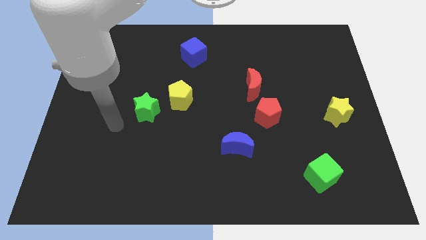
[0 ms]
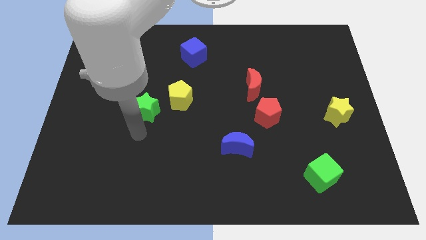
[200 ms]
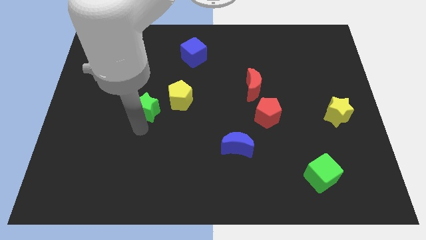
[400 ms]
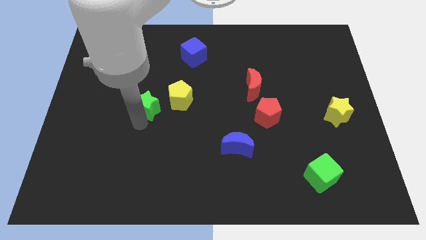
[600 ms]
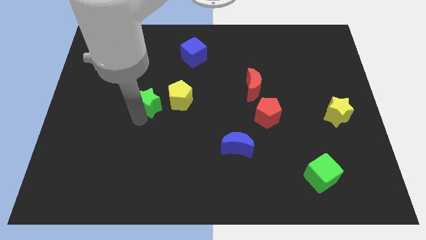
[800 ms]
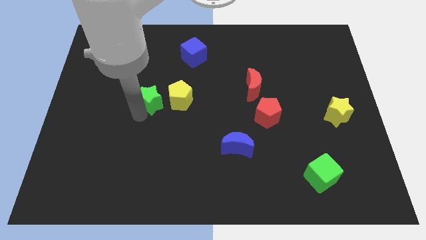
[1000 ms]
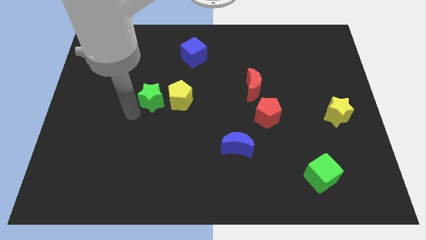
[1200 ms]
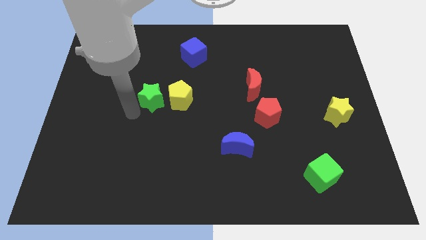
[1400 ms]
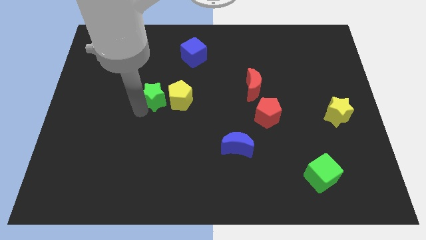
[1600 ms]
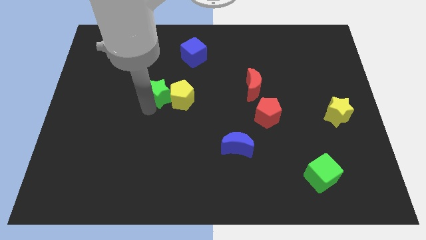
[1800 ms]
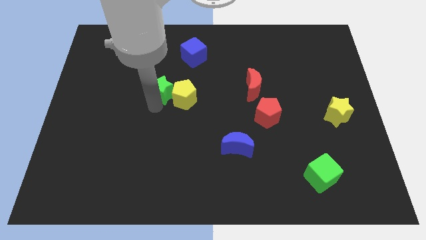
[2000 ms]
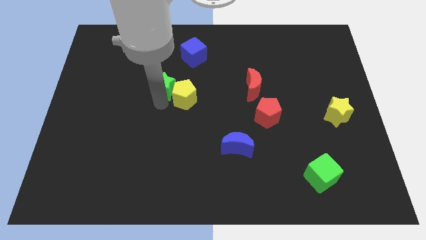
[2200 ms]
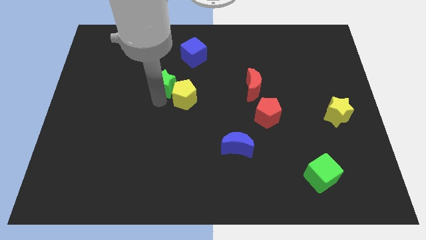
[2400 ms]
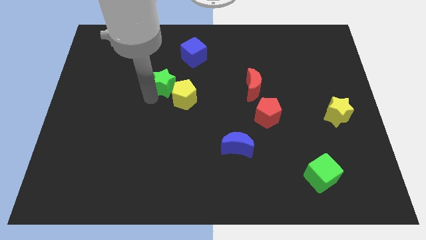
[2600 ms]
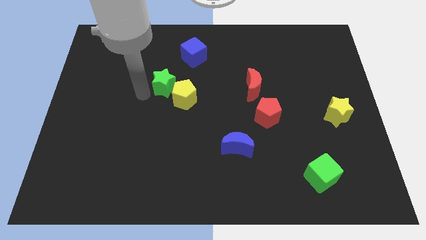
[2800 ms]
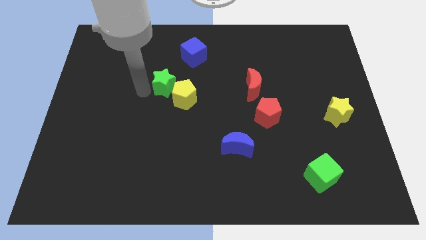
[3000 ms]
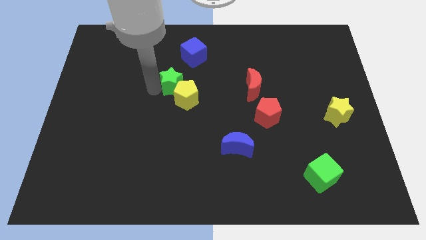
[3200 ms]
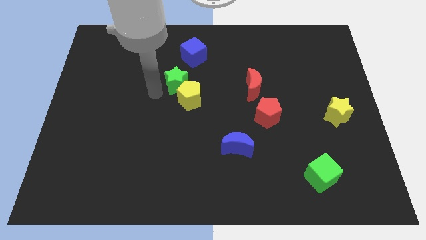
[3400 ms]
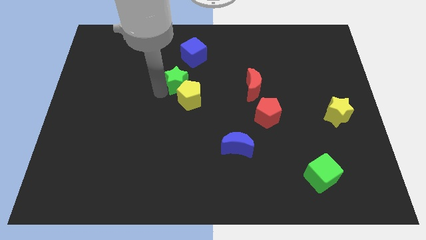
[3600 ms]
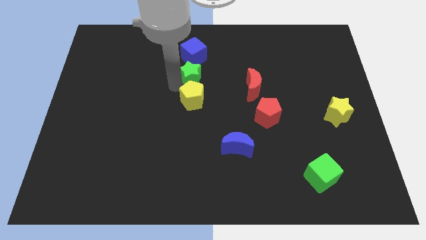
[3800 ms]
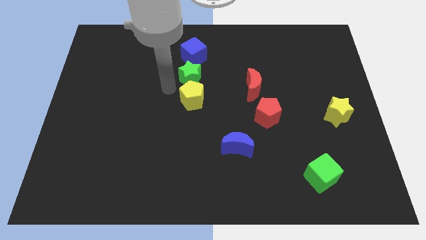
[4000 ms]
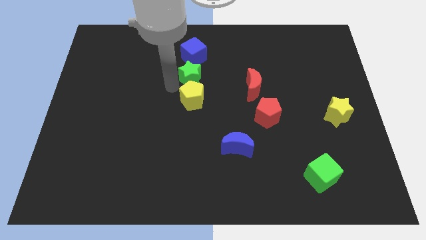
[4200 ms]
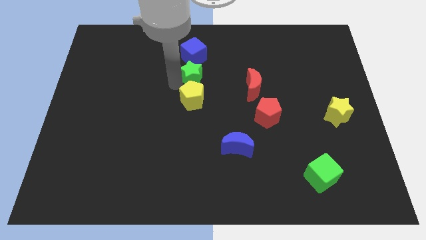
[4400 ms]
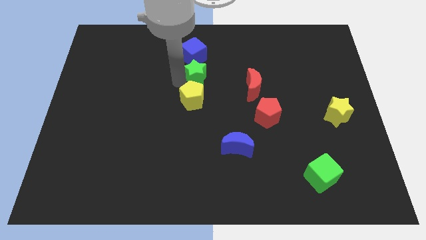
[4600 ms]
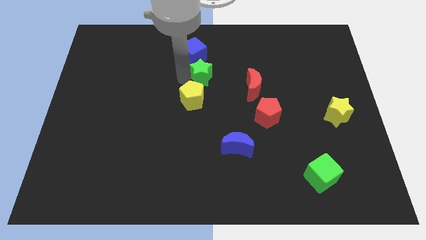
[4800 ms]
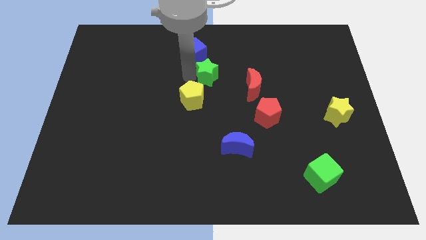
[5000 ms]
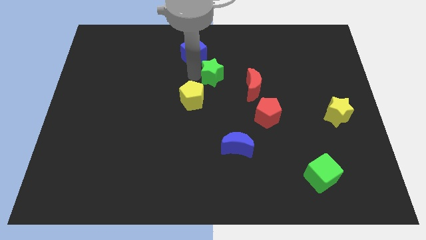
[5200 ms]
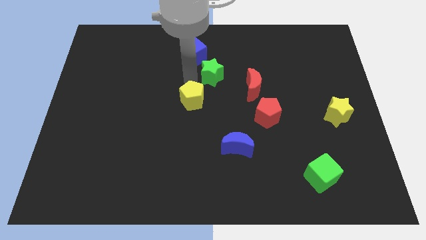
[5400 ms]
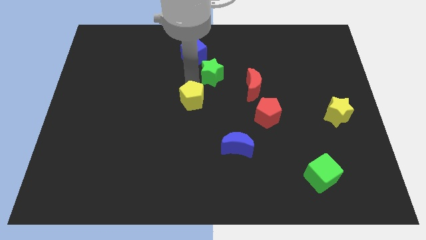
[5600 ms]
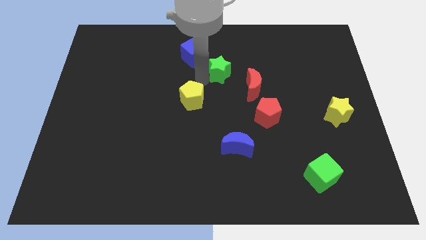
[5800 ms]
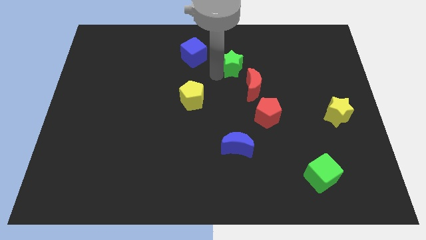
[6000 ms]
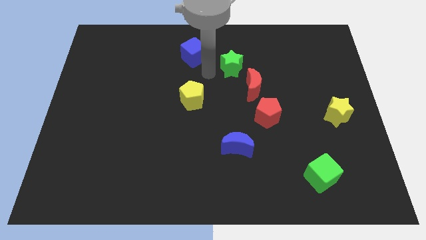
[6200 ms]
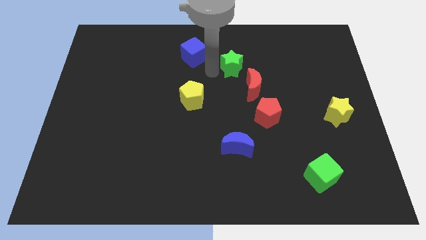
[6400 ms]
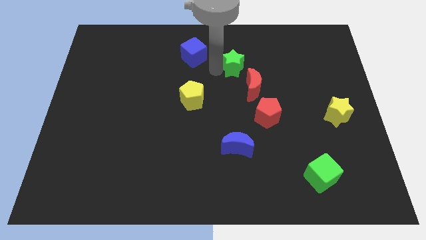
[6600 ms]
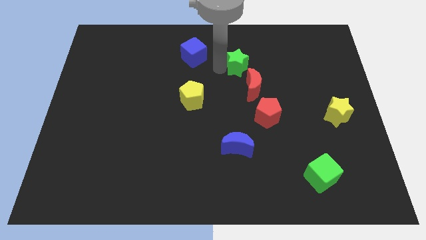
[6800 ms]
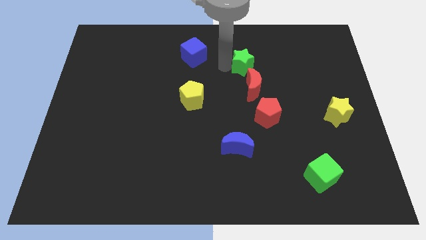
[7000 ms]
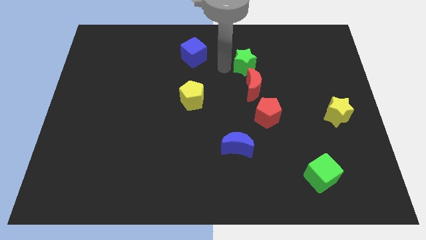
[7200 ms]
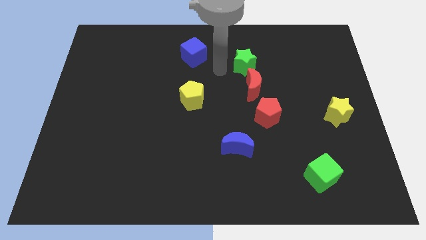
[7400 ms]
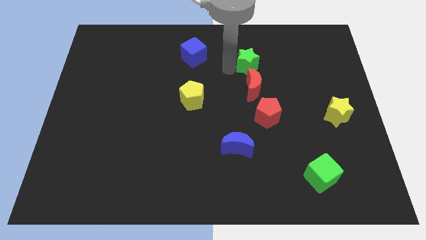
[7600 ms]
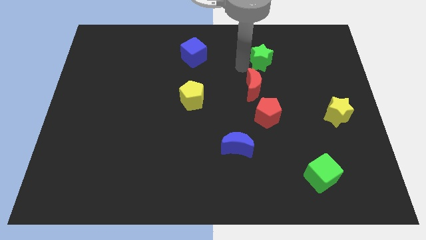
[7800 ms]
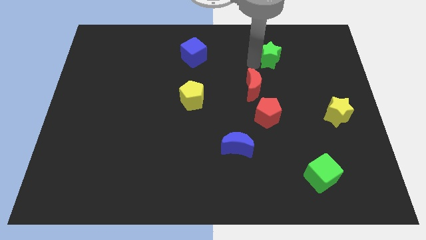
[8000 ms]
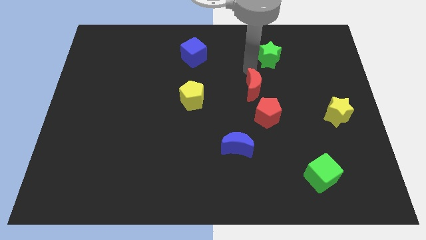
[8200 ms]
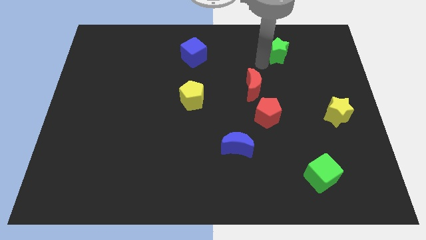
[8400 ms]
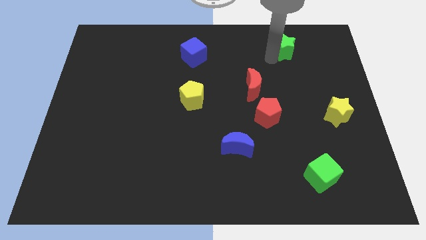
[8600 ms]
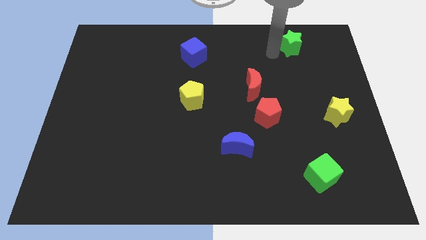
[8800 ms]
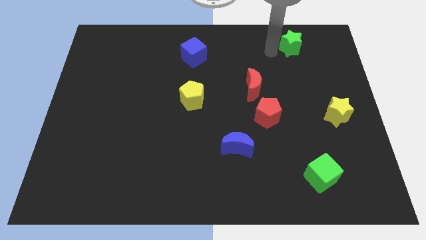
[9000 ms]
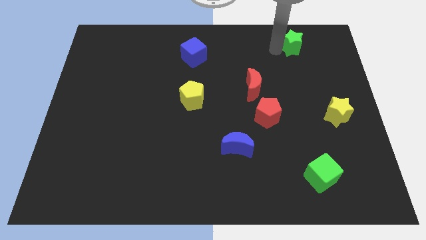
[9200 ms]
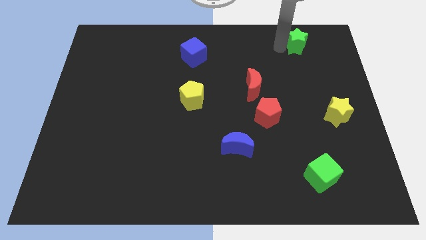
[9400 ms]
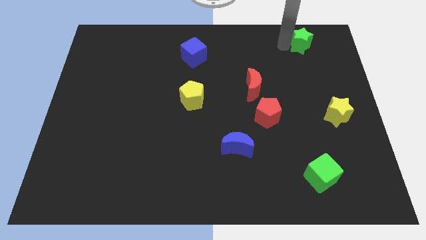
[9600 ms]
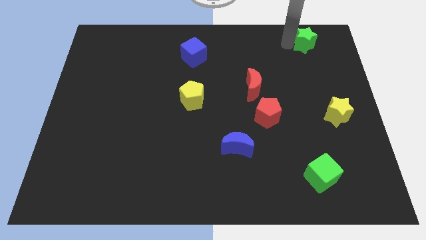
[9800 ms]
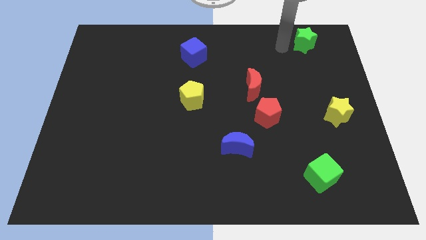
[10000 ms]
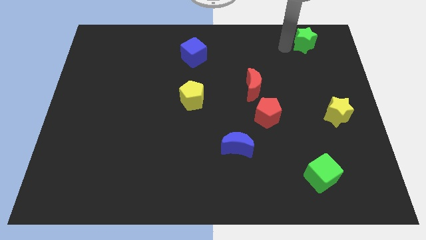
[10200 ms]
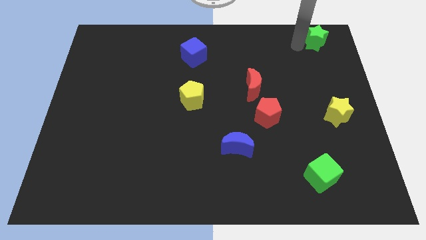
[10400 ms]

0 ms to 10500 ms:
slide the green star to the top right of the board

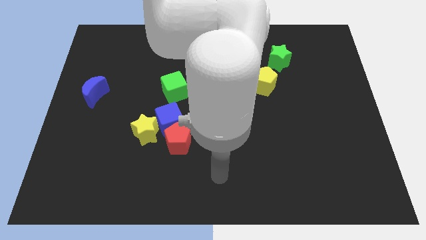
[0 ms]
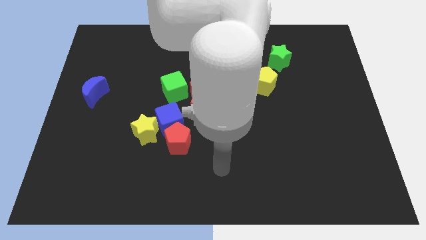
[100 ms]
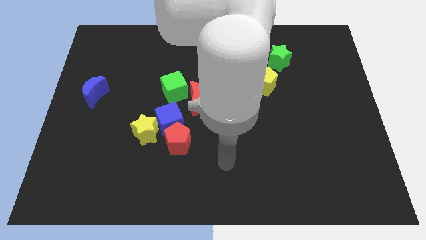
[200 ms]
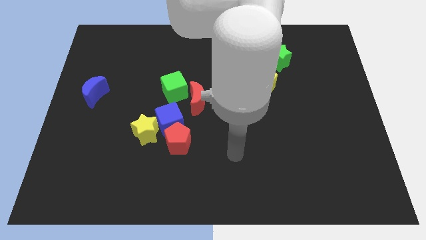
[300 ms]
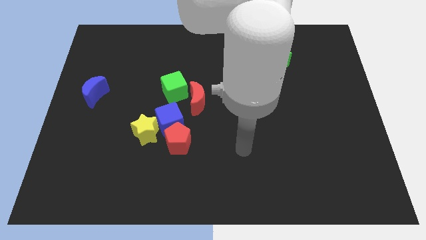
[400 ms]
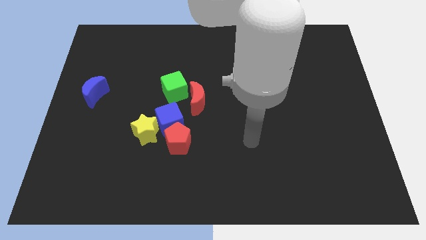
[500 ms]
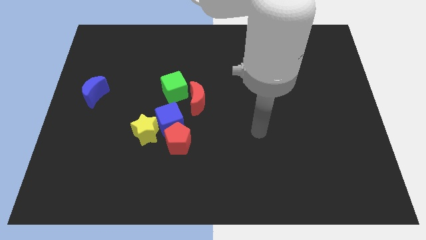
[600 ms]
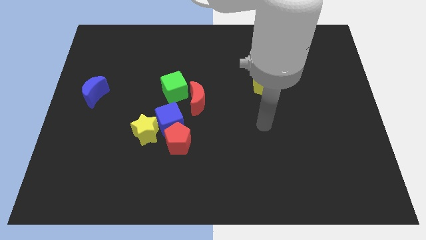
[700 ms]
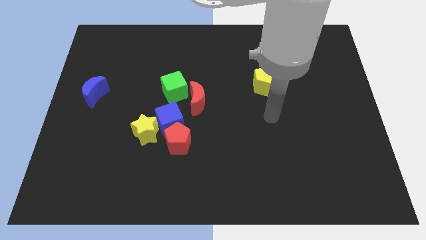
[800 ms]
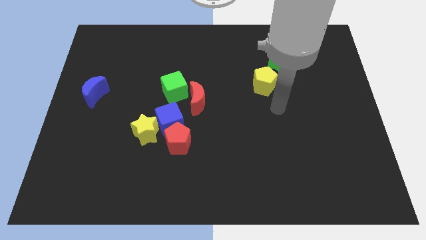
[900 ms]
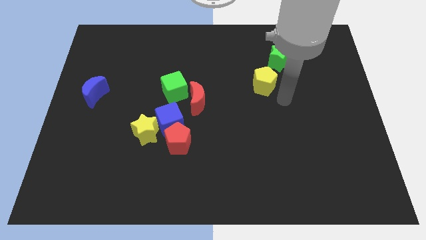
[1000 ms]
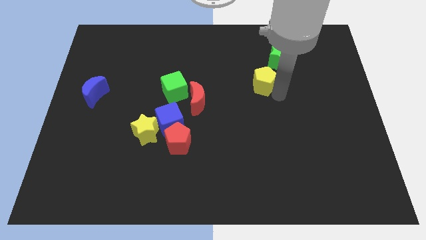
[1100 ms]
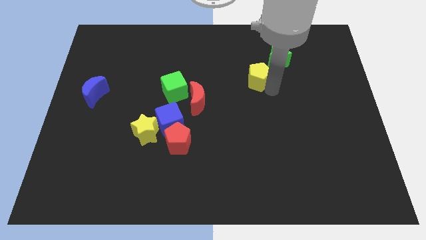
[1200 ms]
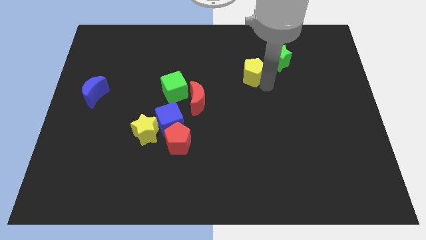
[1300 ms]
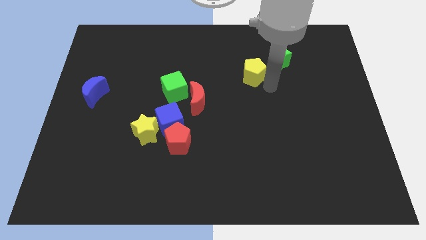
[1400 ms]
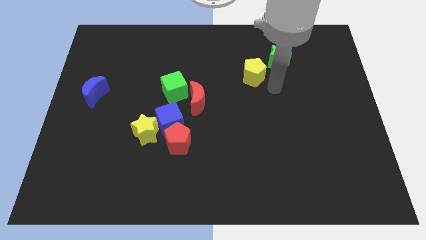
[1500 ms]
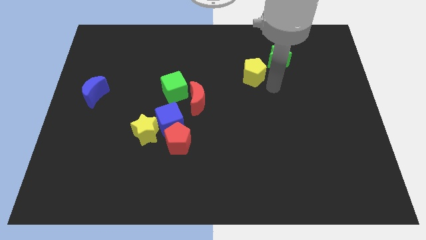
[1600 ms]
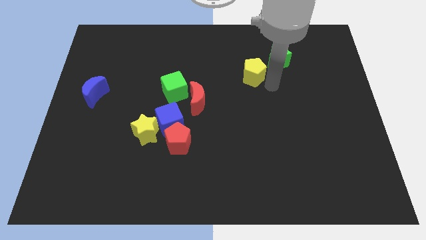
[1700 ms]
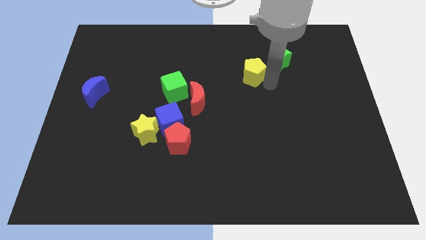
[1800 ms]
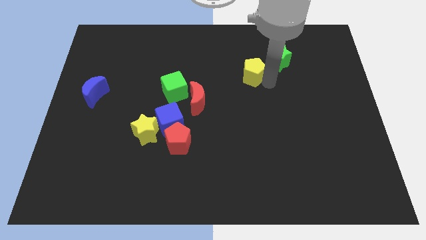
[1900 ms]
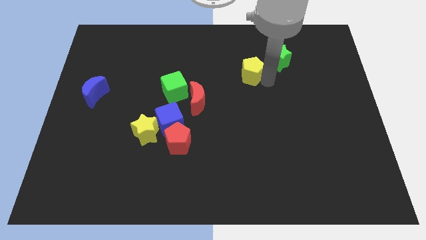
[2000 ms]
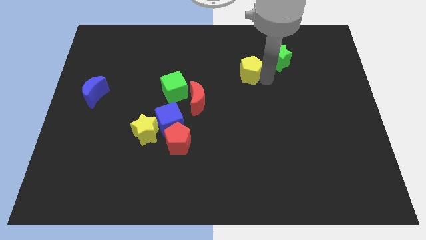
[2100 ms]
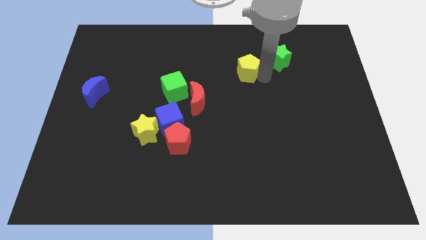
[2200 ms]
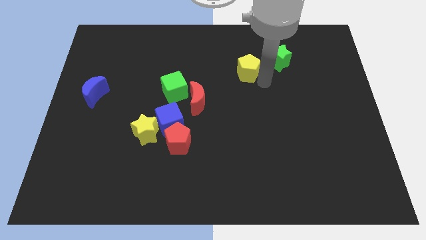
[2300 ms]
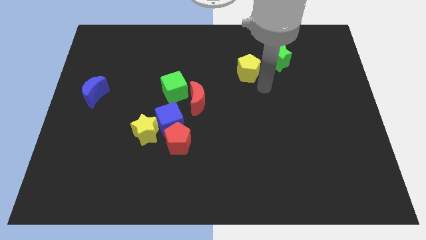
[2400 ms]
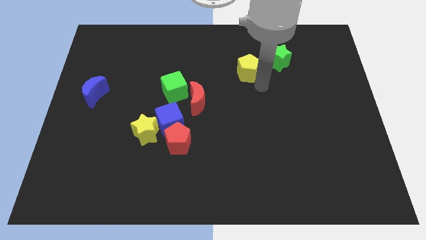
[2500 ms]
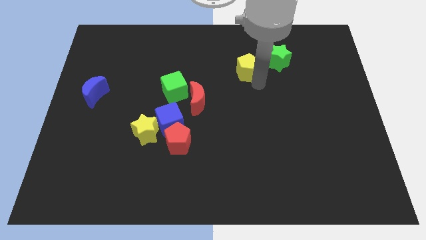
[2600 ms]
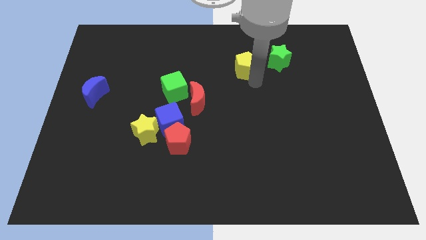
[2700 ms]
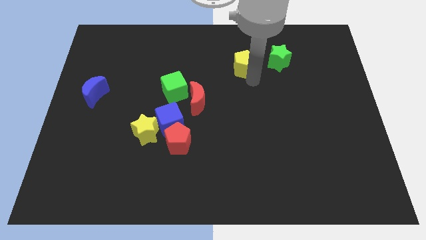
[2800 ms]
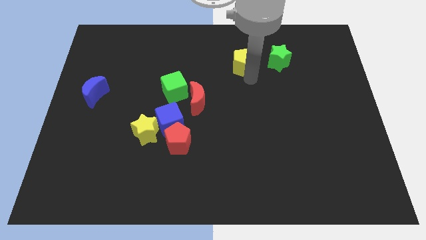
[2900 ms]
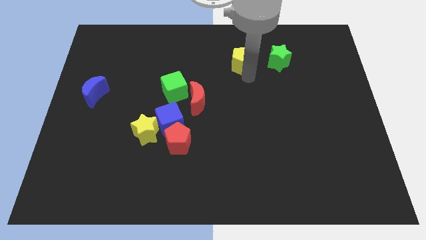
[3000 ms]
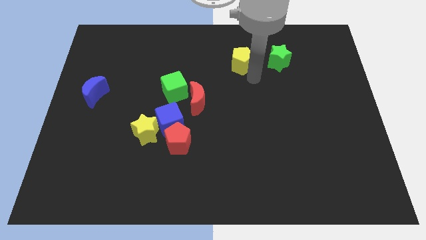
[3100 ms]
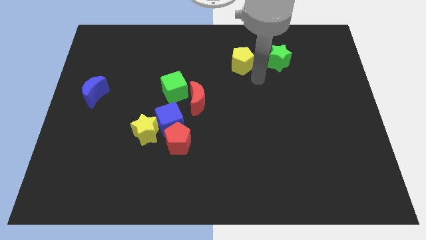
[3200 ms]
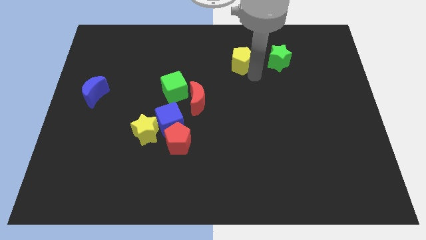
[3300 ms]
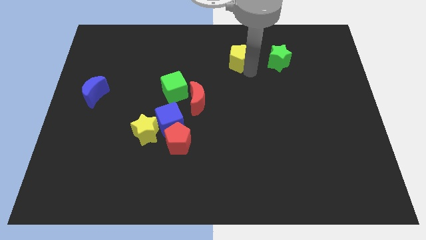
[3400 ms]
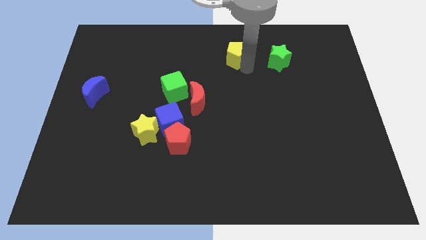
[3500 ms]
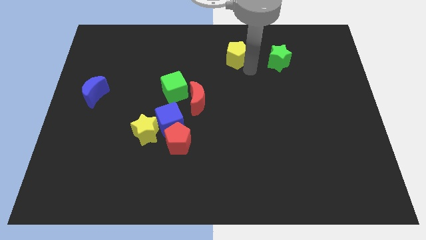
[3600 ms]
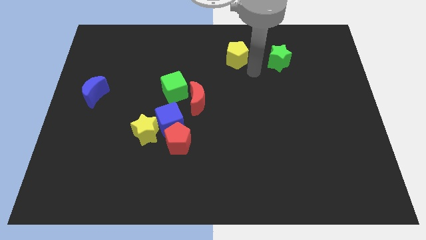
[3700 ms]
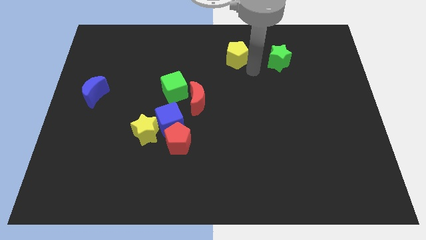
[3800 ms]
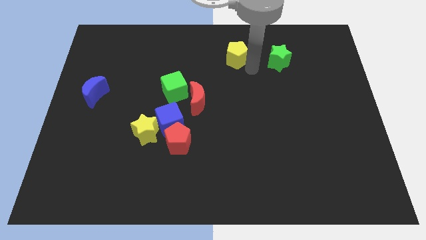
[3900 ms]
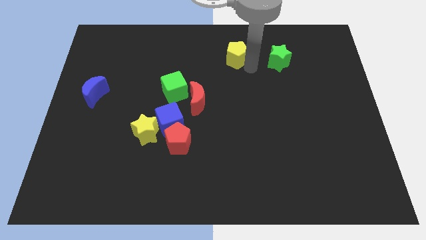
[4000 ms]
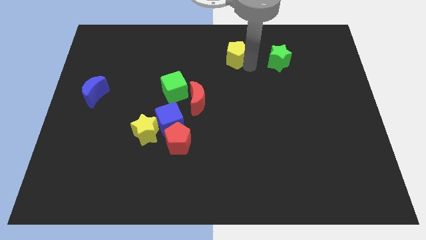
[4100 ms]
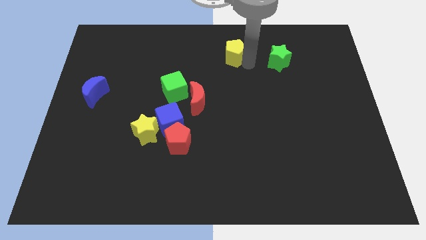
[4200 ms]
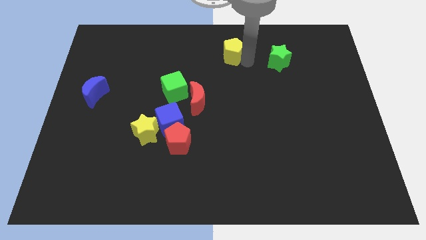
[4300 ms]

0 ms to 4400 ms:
put the yellow pentagon to the top side
